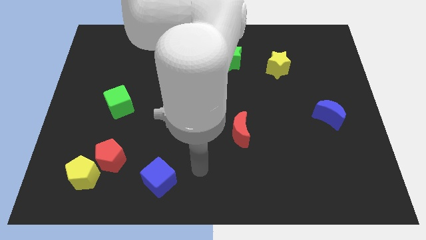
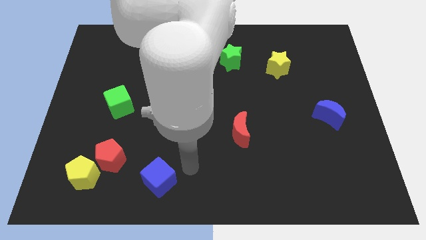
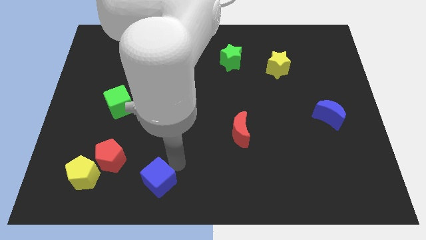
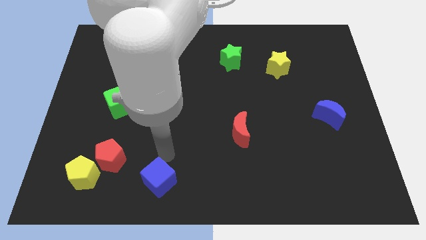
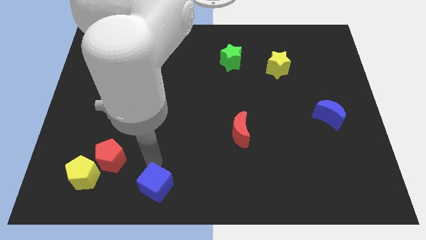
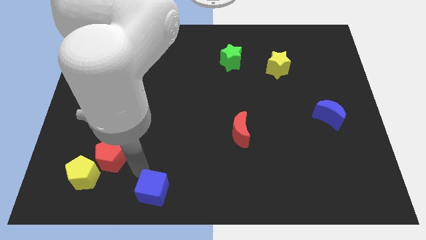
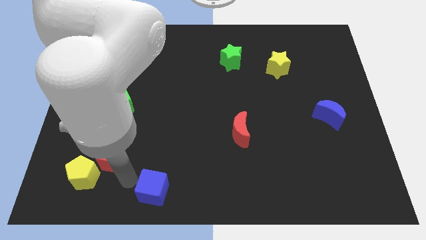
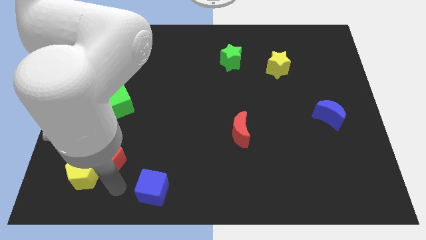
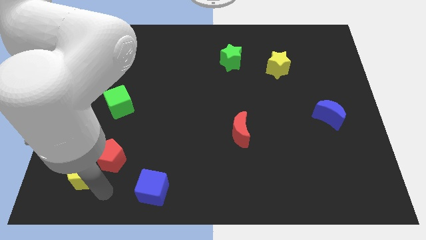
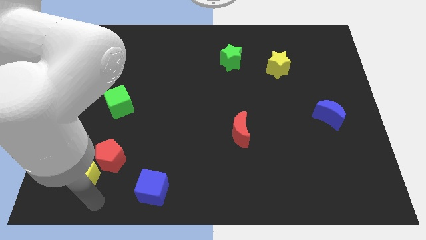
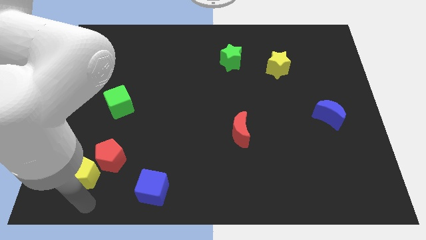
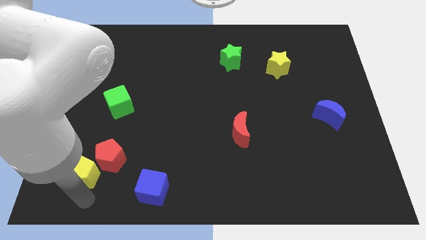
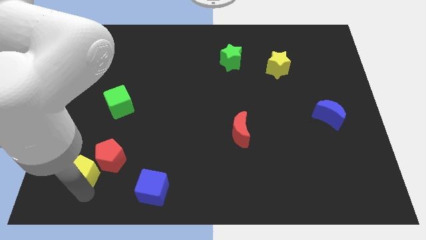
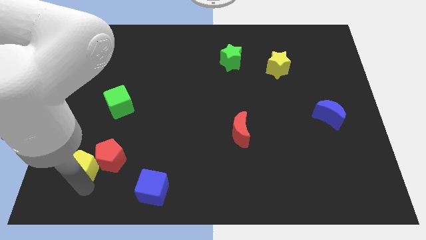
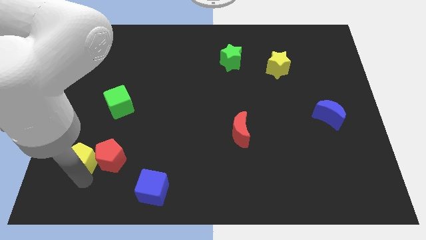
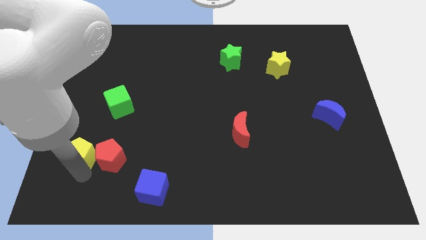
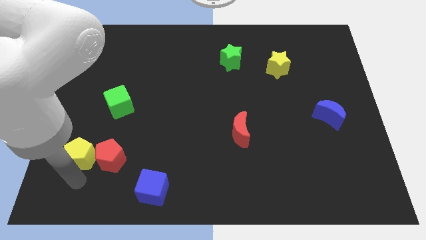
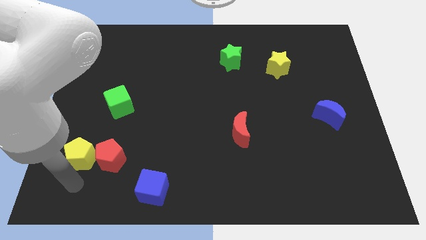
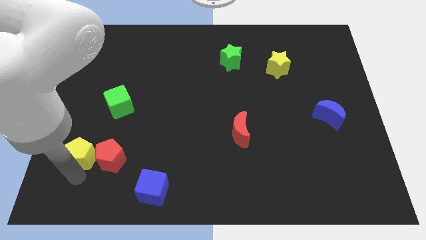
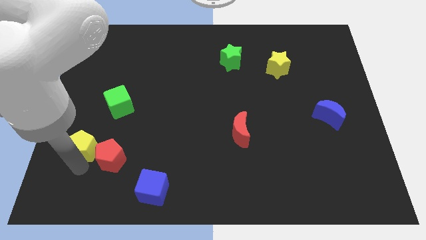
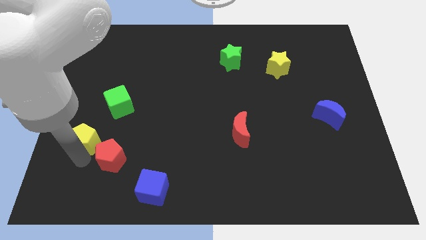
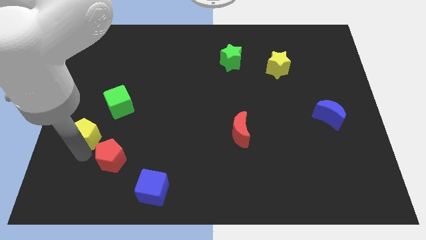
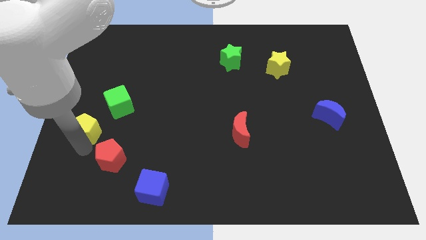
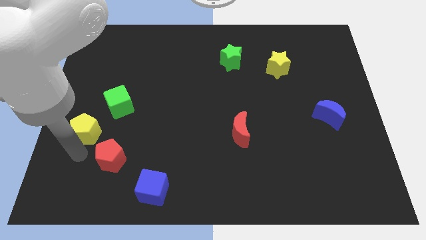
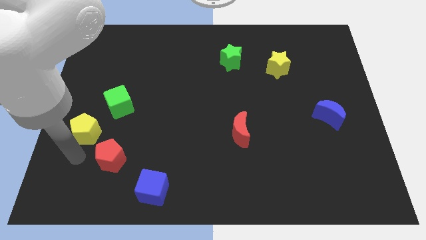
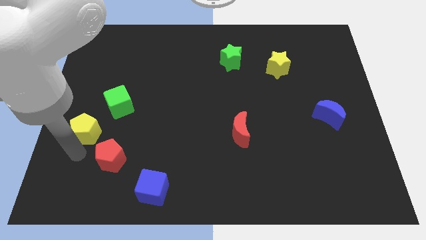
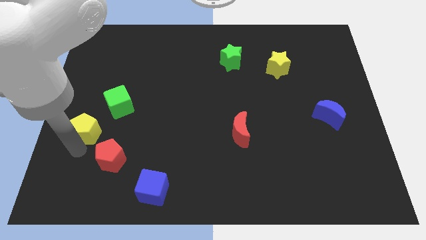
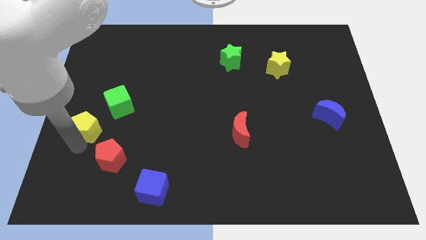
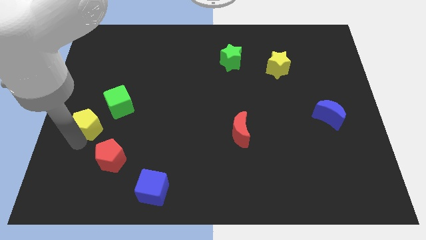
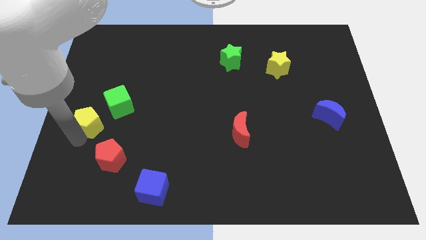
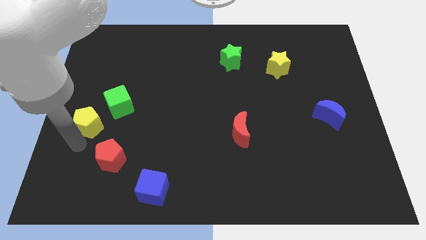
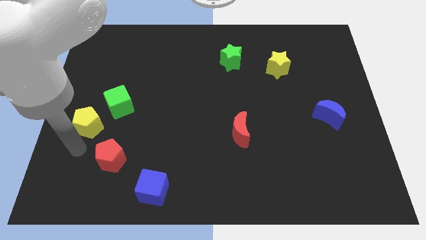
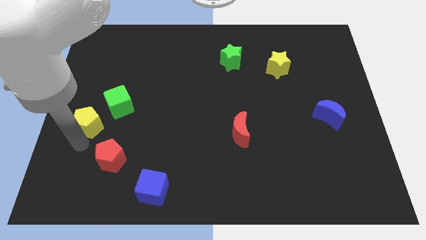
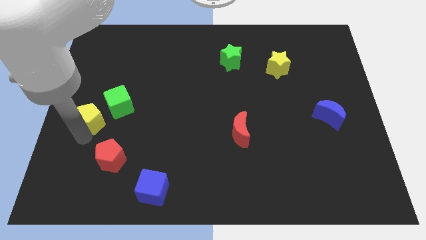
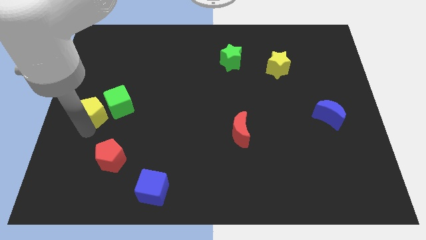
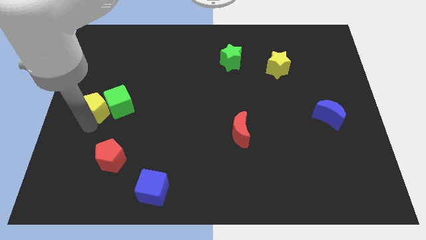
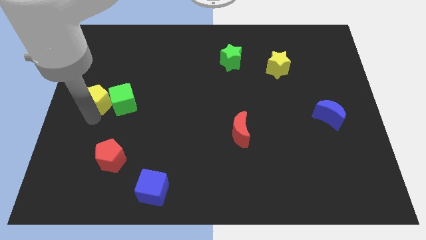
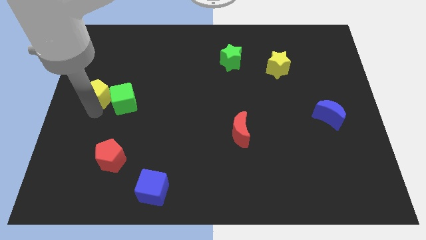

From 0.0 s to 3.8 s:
push the yellow pentagon up

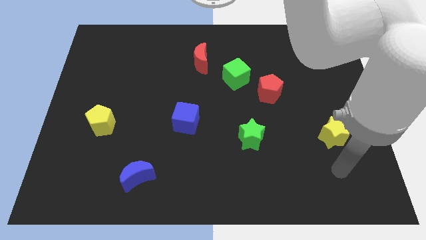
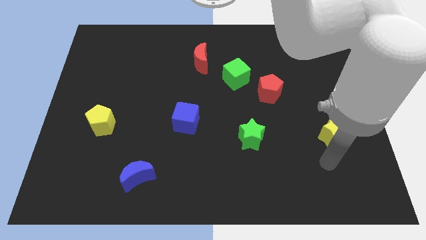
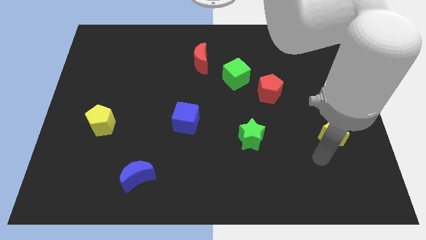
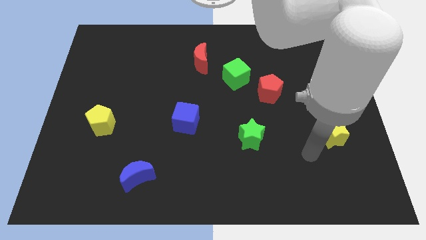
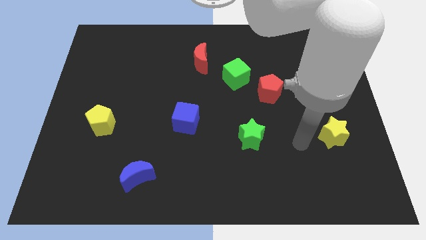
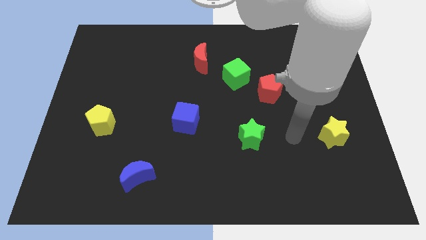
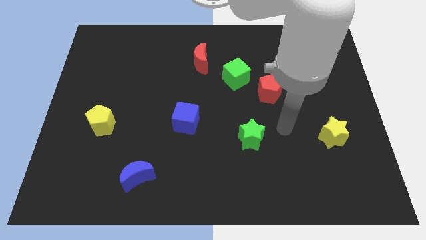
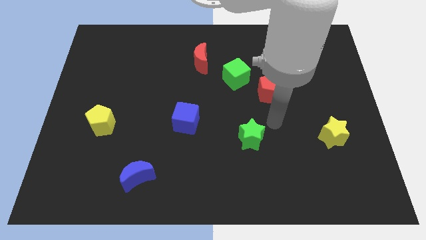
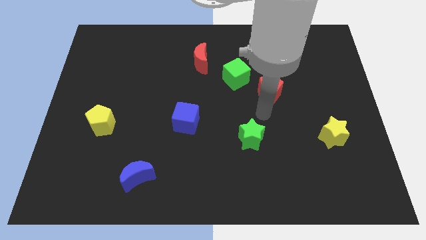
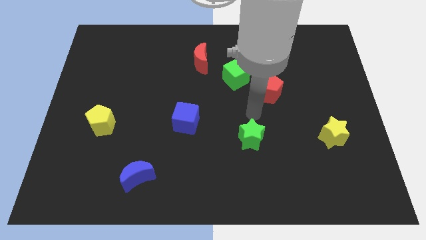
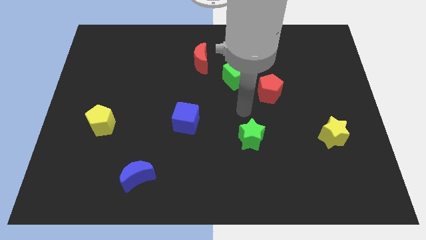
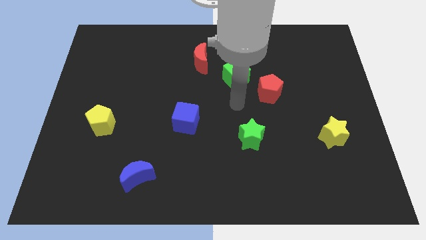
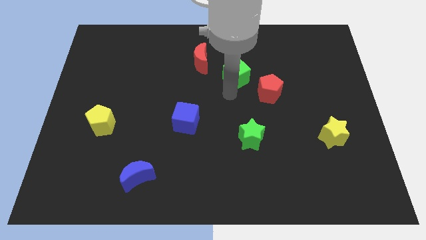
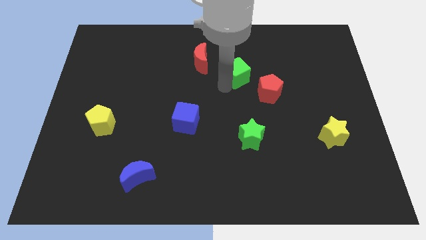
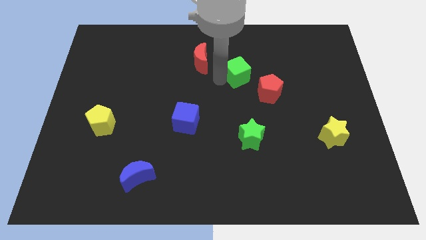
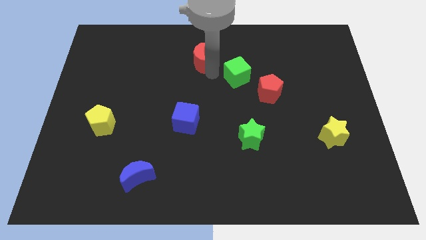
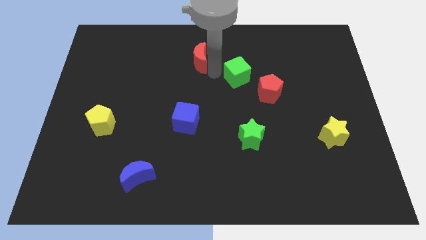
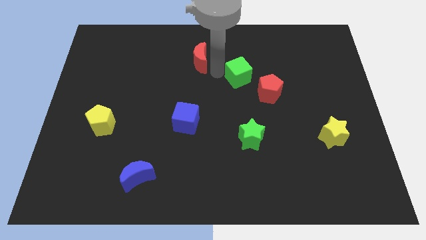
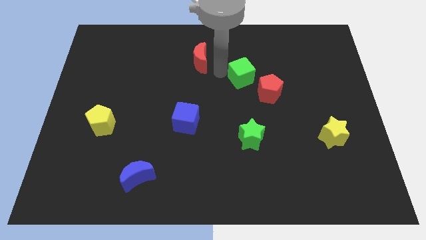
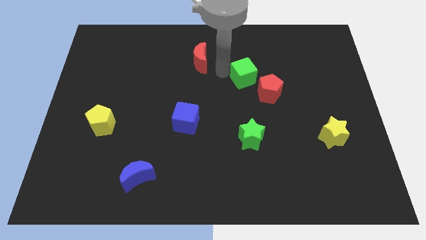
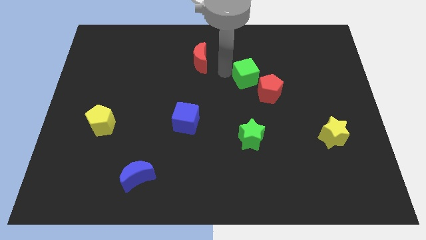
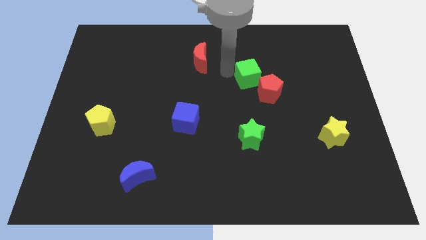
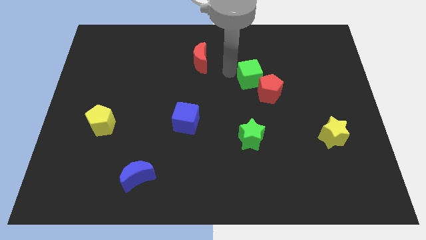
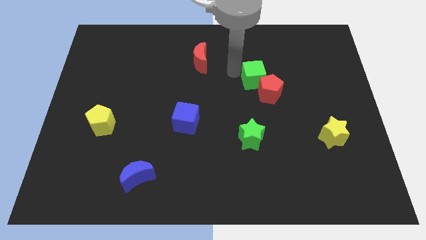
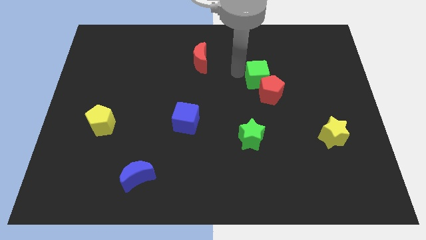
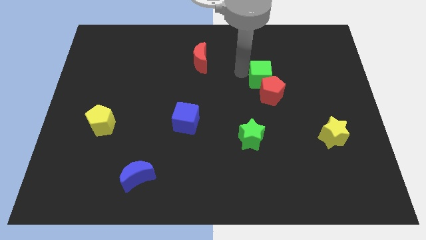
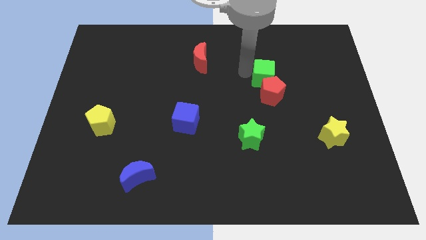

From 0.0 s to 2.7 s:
push the green cube right somewhat

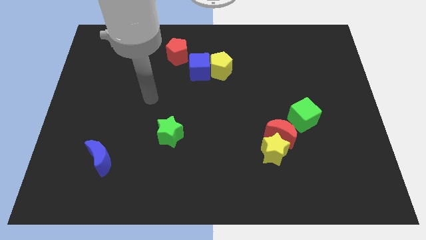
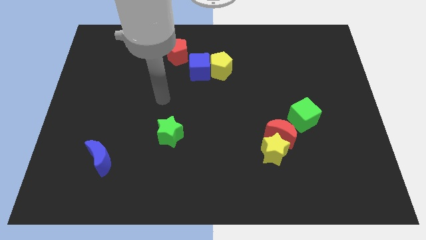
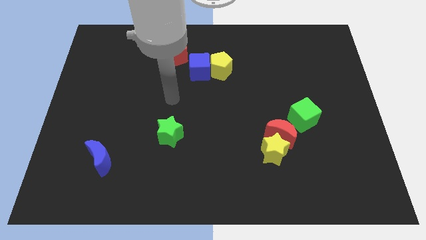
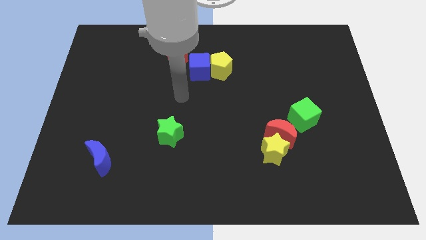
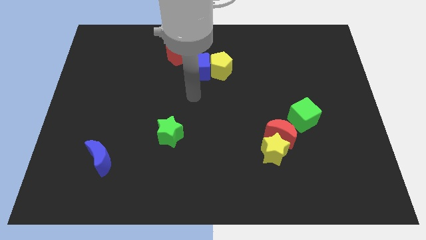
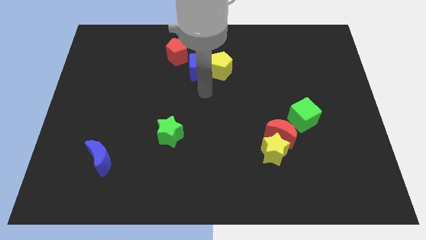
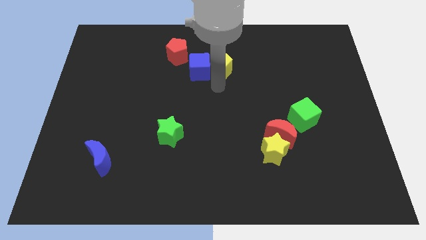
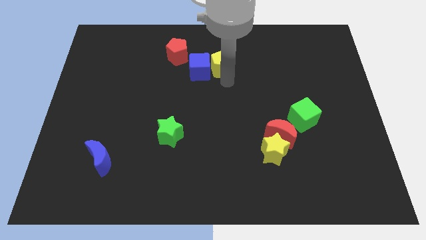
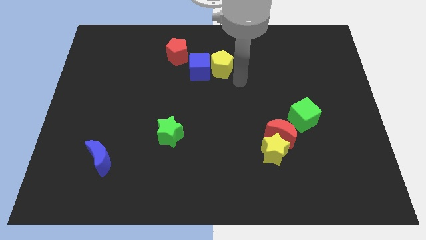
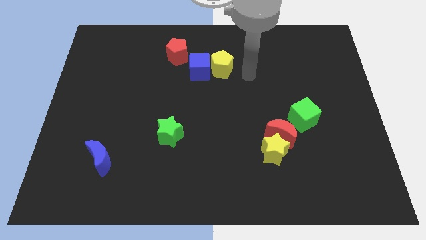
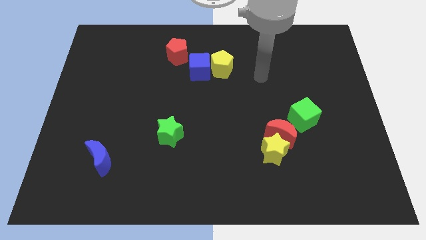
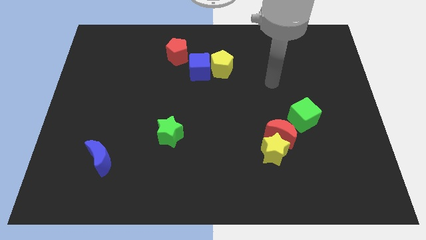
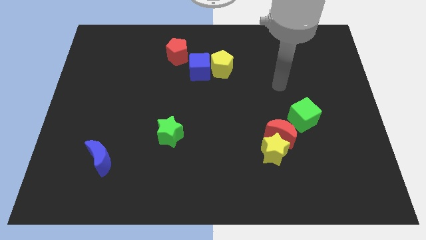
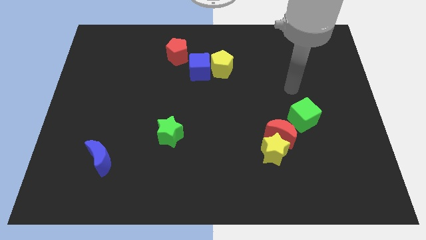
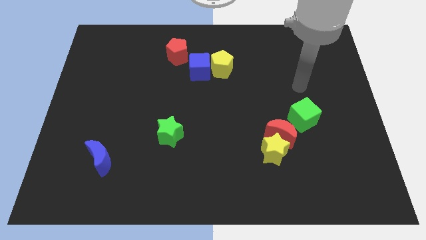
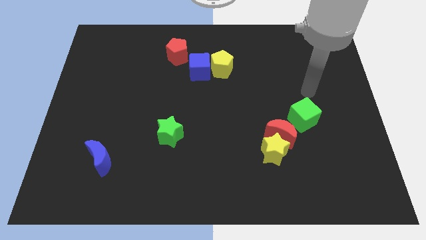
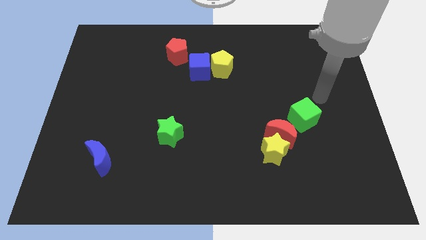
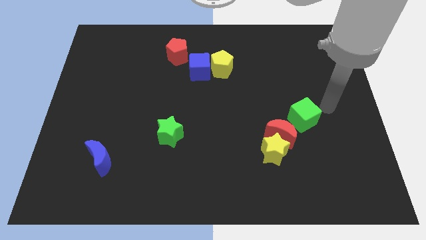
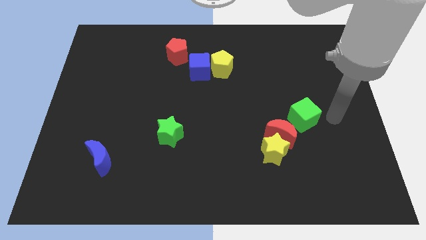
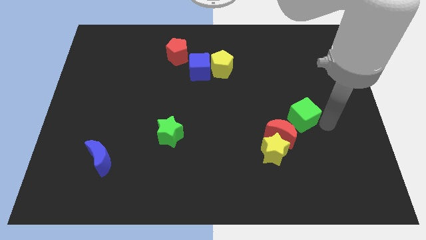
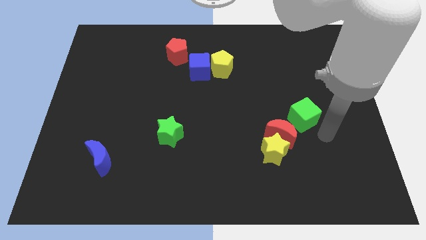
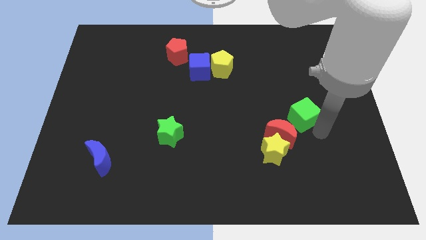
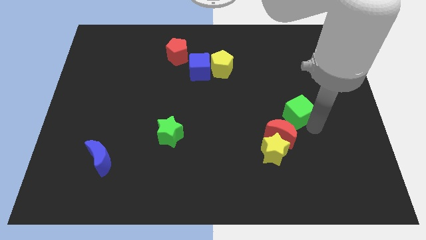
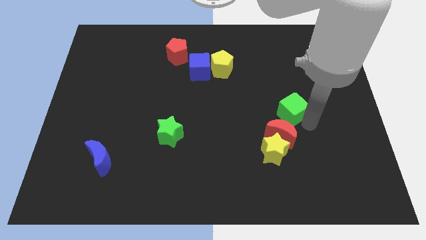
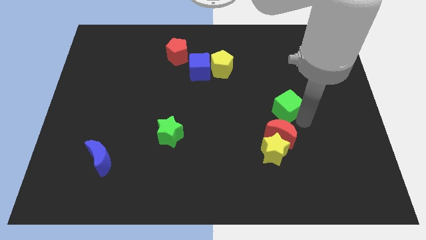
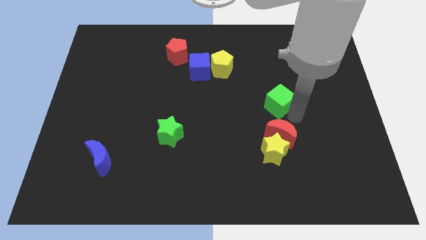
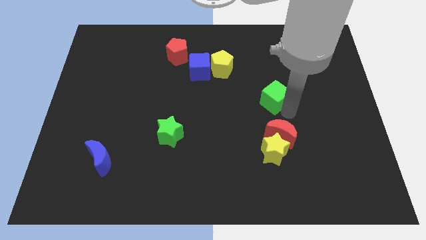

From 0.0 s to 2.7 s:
move the green cube a little up and left
